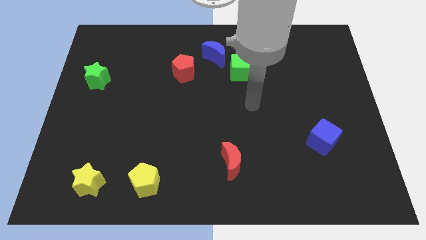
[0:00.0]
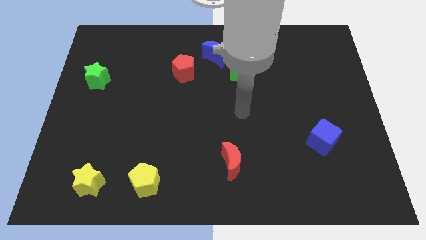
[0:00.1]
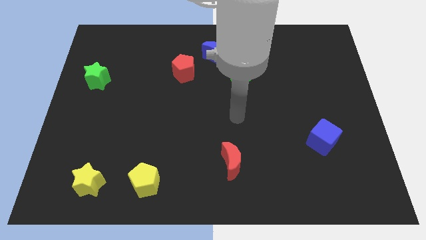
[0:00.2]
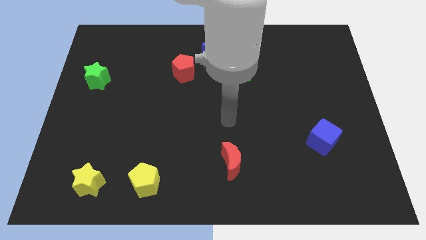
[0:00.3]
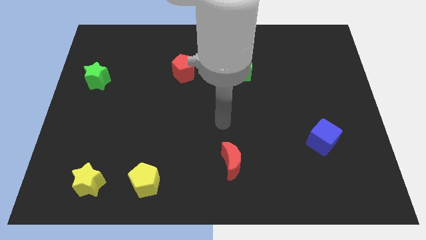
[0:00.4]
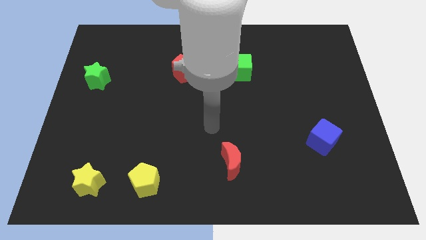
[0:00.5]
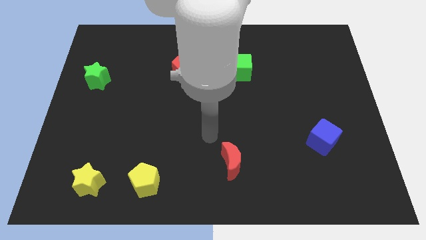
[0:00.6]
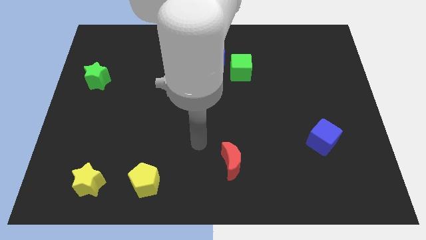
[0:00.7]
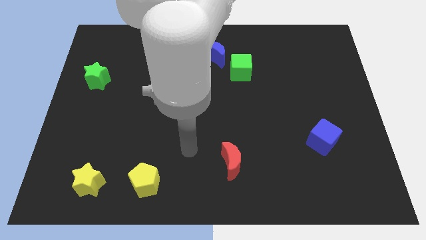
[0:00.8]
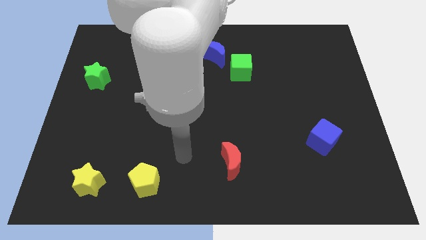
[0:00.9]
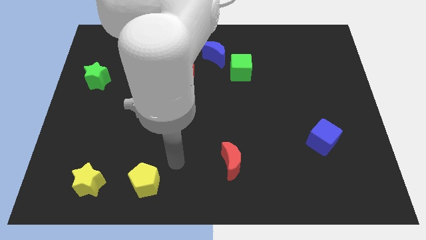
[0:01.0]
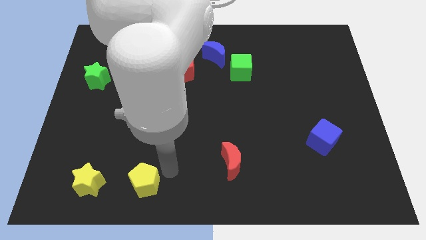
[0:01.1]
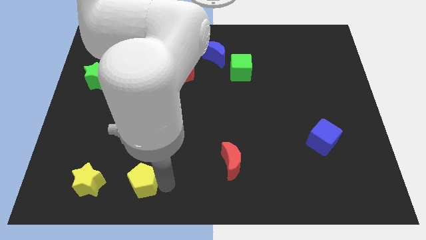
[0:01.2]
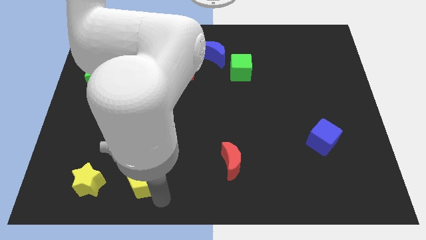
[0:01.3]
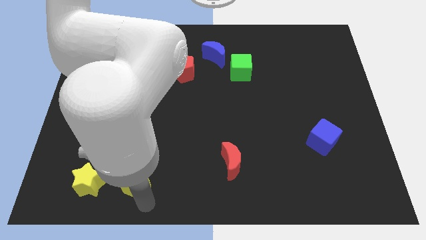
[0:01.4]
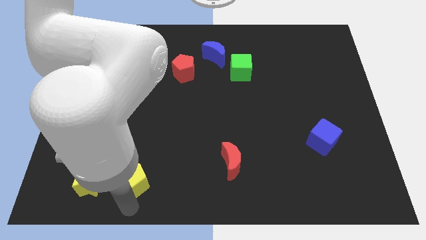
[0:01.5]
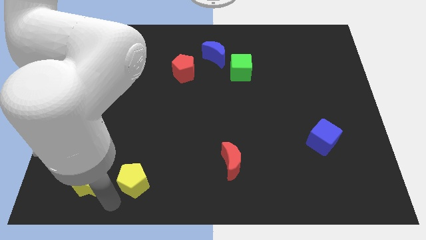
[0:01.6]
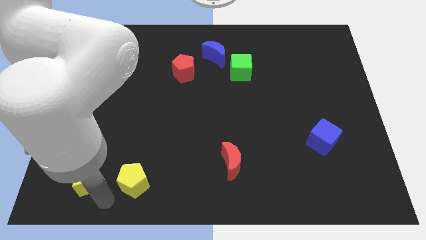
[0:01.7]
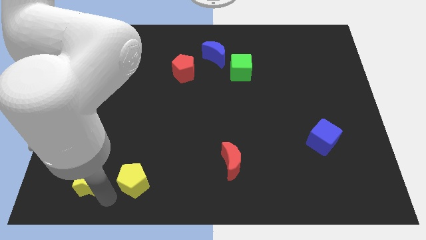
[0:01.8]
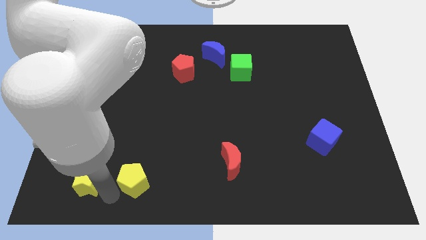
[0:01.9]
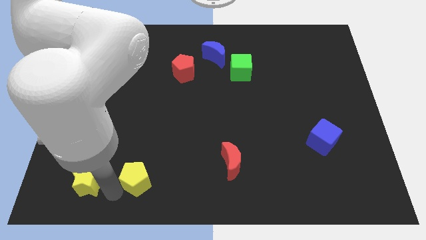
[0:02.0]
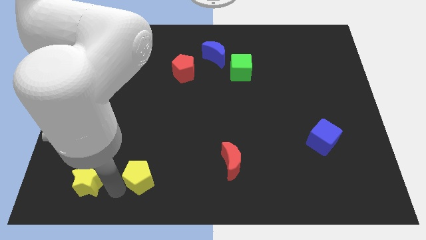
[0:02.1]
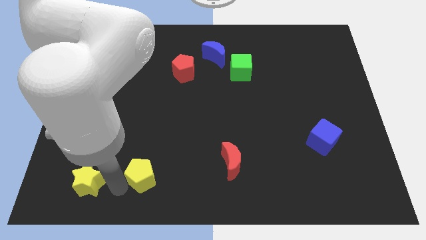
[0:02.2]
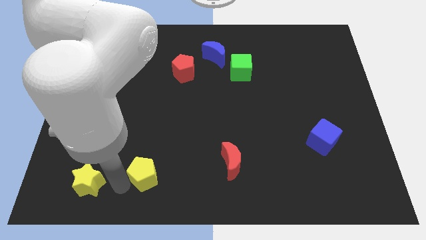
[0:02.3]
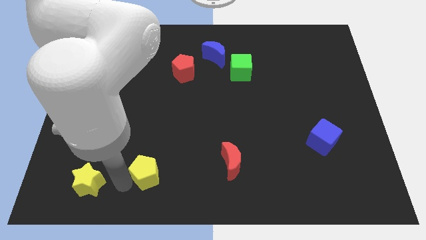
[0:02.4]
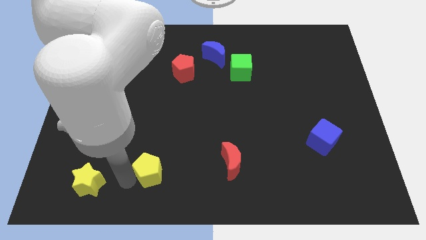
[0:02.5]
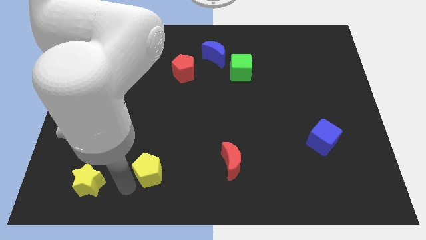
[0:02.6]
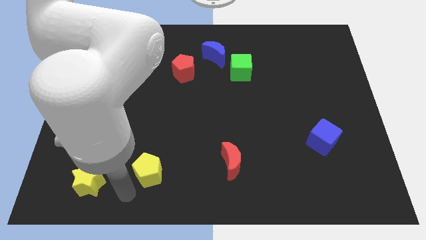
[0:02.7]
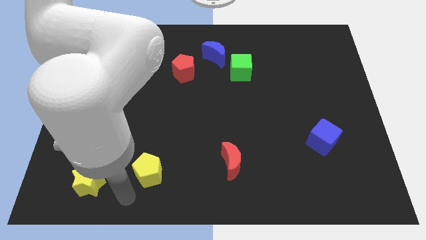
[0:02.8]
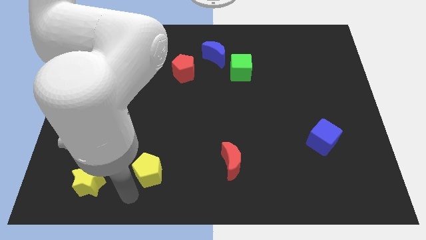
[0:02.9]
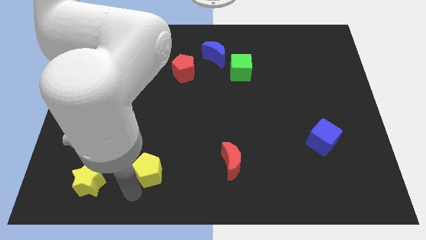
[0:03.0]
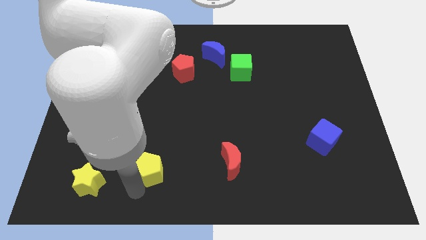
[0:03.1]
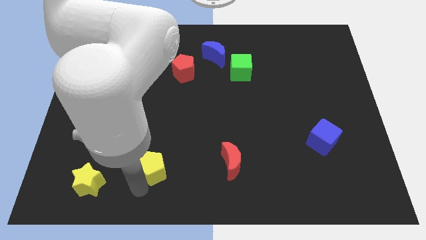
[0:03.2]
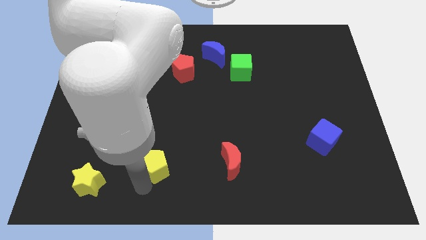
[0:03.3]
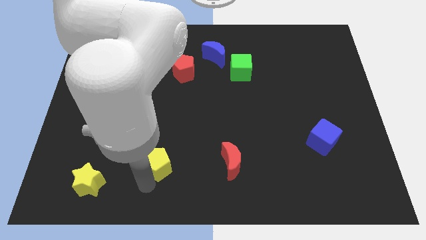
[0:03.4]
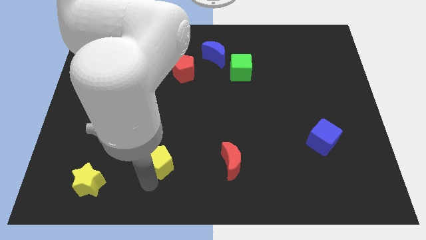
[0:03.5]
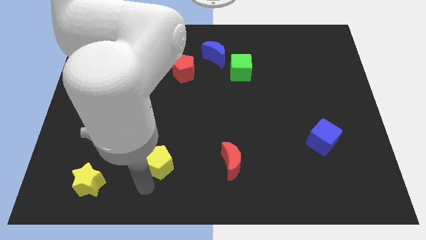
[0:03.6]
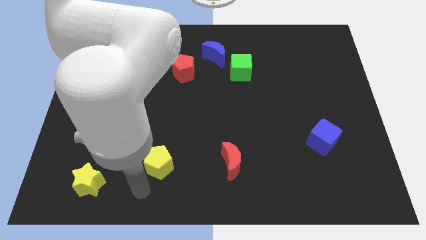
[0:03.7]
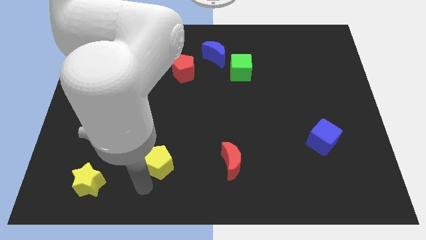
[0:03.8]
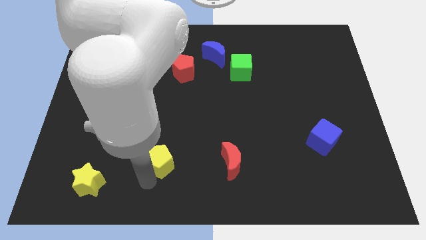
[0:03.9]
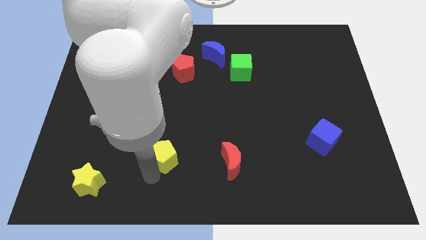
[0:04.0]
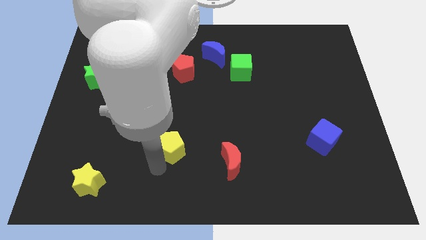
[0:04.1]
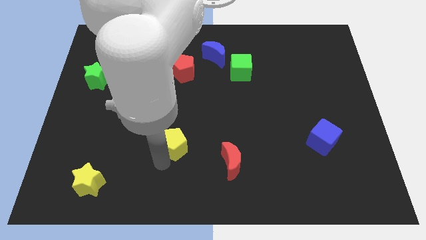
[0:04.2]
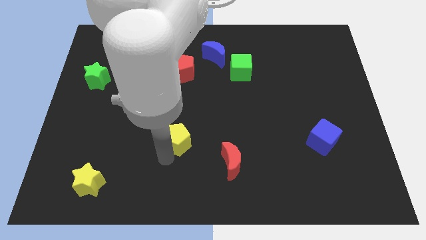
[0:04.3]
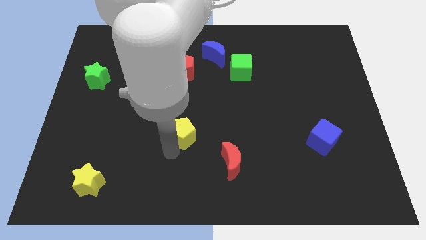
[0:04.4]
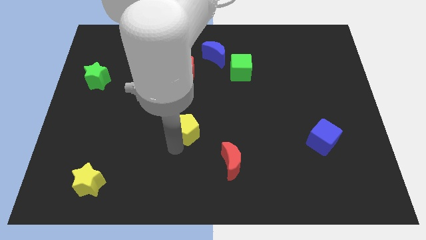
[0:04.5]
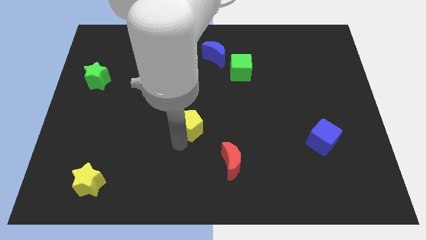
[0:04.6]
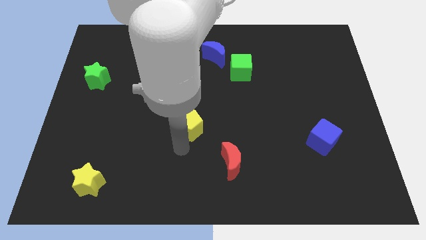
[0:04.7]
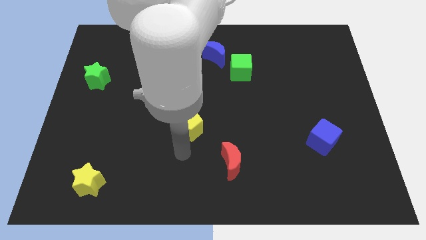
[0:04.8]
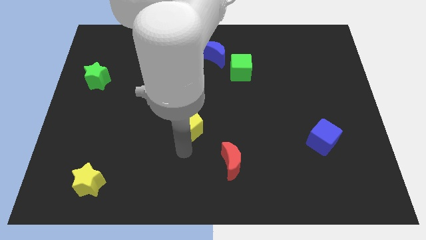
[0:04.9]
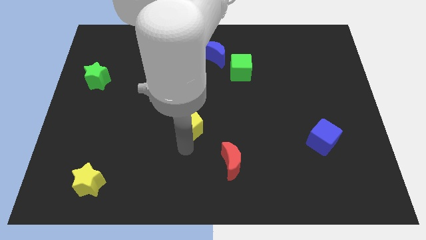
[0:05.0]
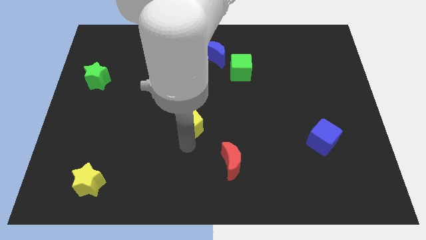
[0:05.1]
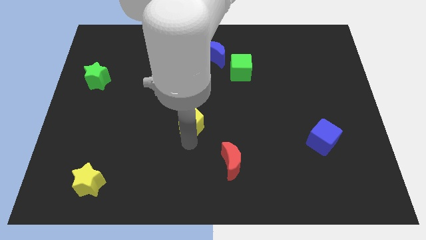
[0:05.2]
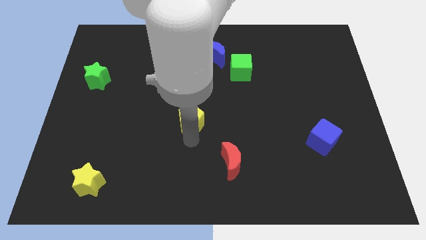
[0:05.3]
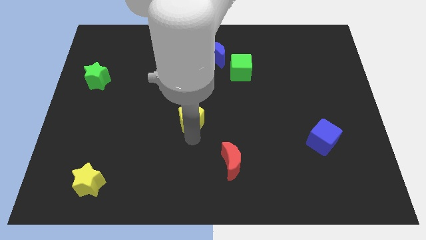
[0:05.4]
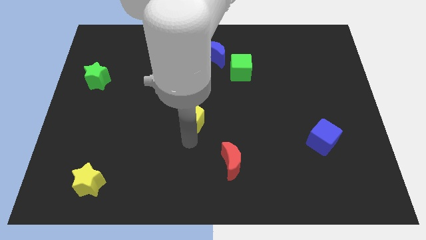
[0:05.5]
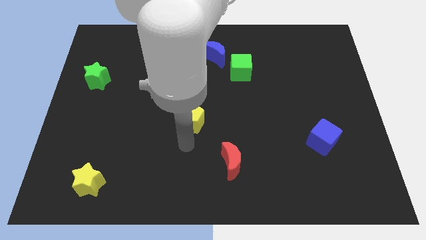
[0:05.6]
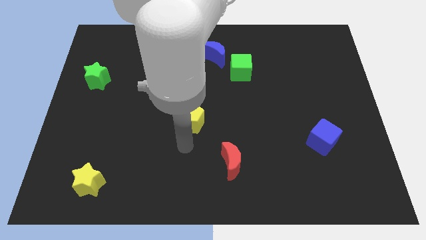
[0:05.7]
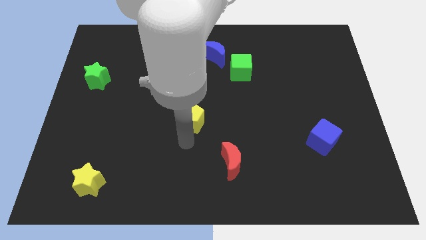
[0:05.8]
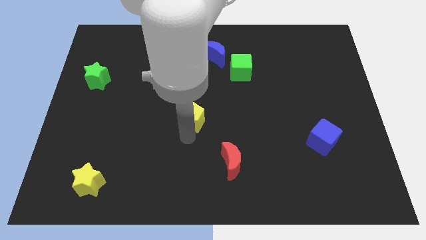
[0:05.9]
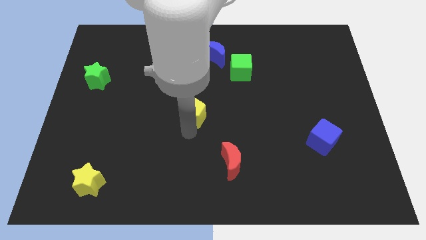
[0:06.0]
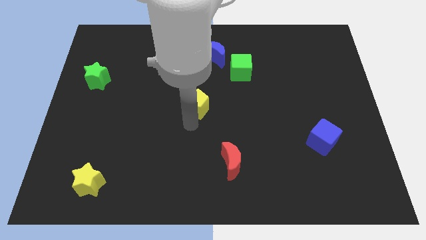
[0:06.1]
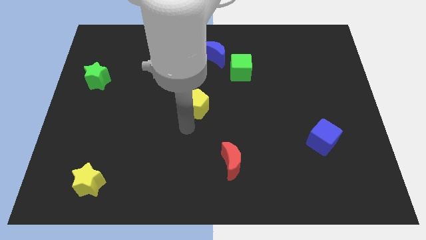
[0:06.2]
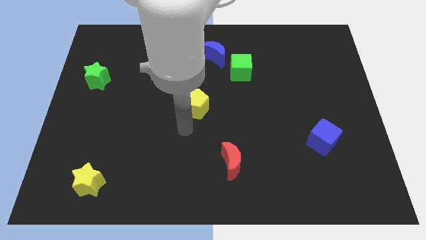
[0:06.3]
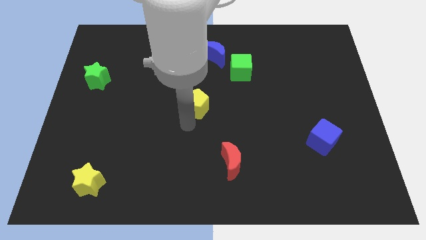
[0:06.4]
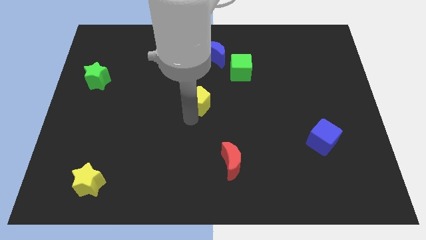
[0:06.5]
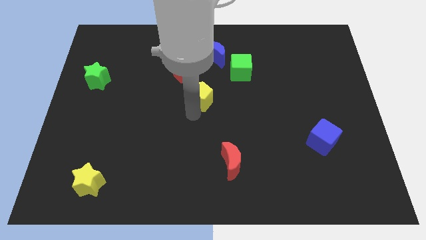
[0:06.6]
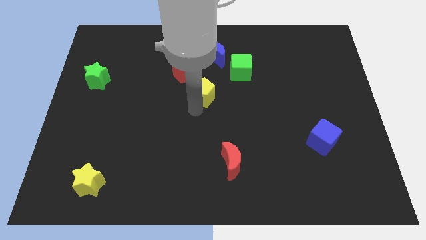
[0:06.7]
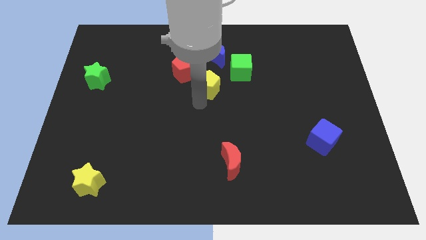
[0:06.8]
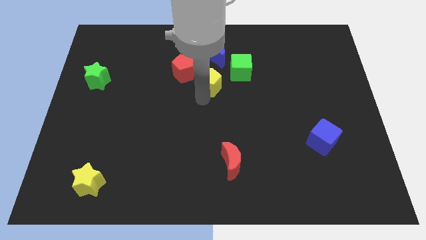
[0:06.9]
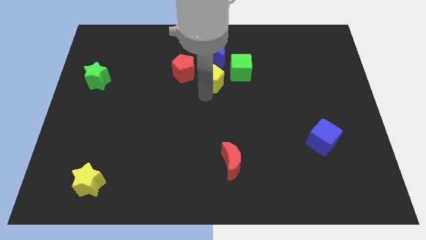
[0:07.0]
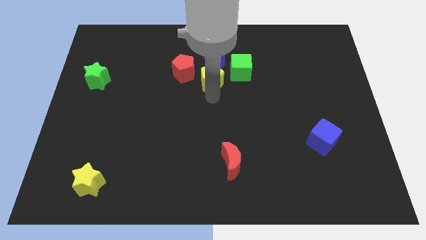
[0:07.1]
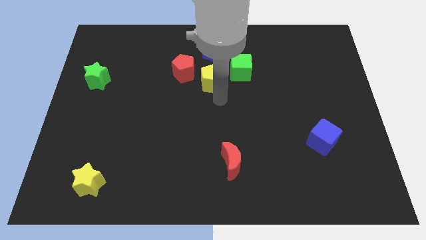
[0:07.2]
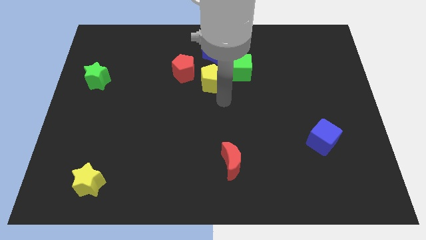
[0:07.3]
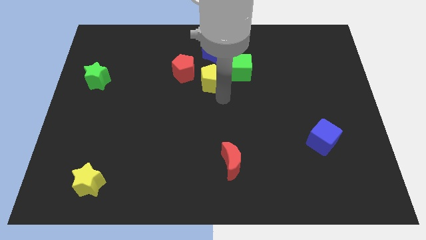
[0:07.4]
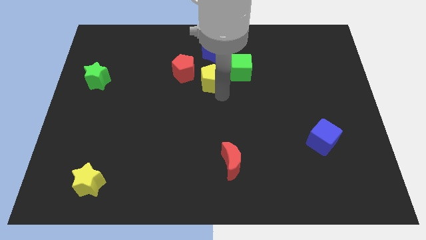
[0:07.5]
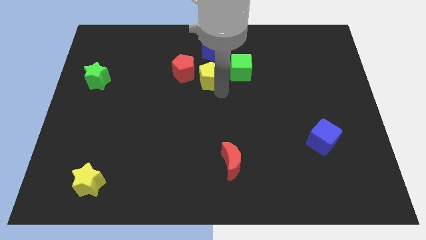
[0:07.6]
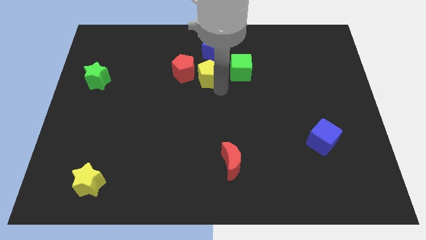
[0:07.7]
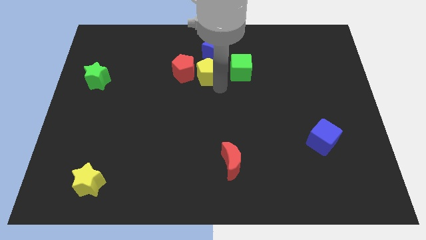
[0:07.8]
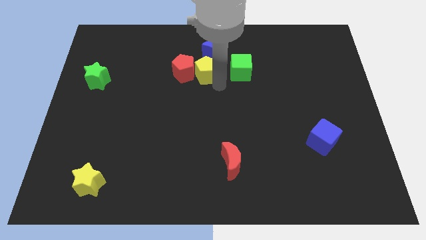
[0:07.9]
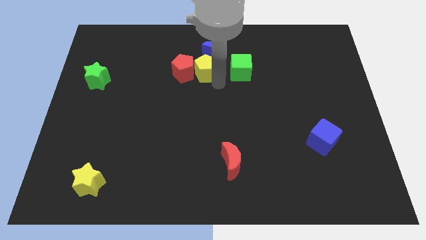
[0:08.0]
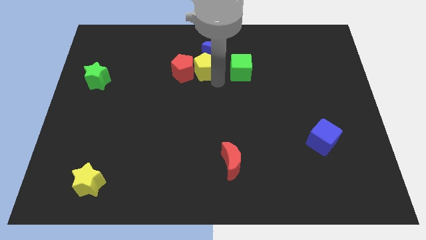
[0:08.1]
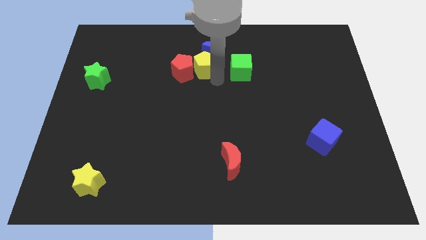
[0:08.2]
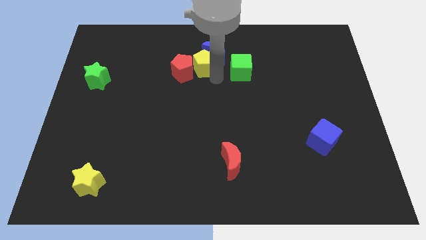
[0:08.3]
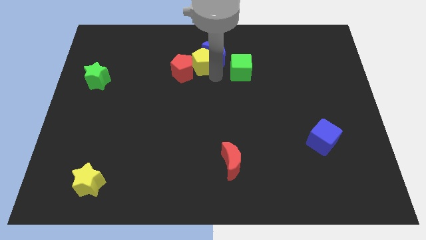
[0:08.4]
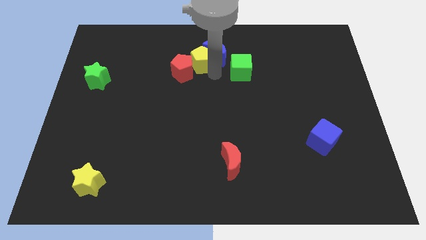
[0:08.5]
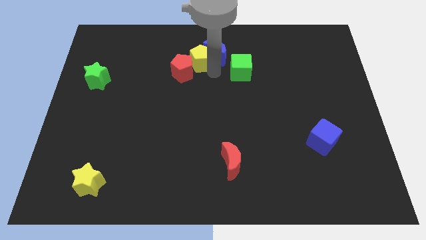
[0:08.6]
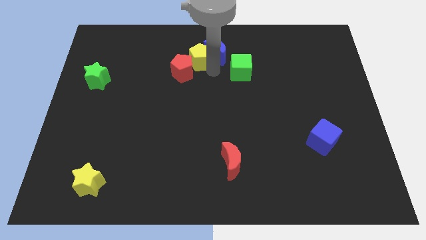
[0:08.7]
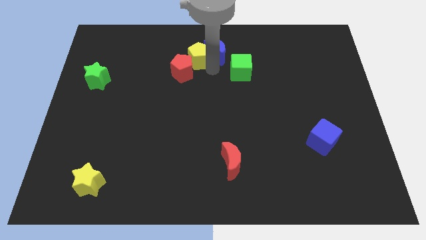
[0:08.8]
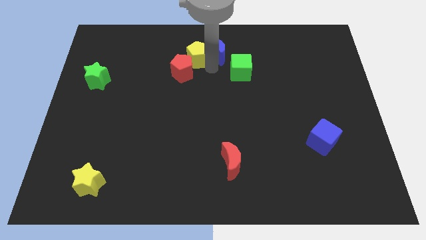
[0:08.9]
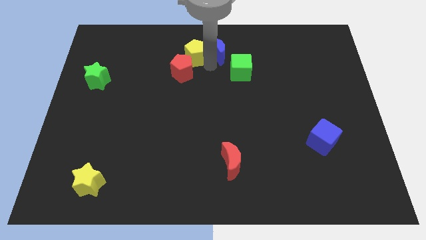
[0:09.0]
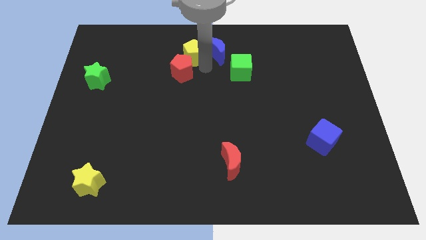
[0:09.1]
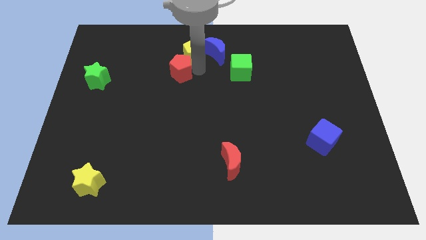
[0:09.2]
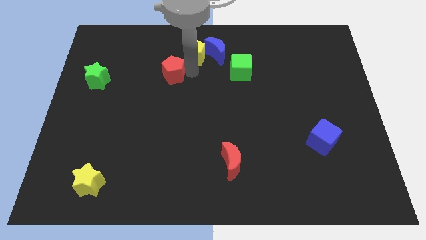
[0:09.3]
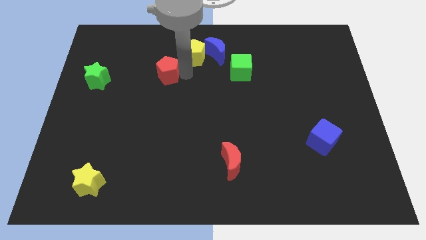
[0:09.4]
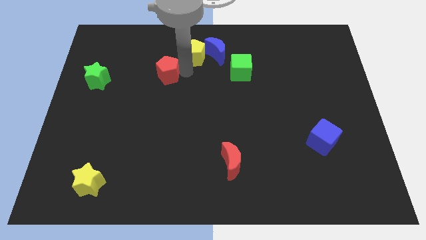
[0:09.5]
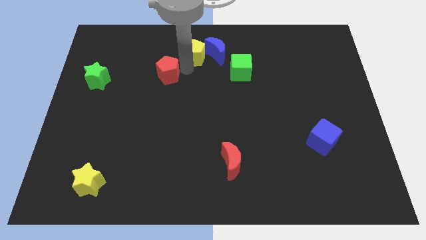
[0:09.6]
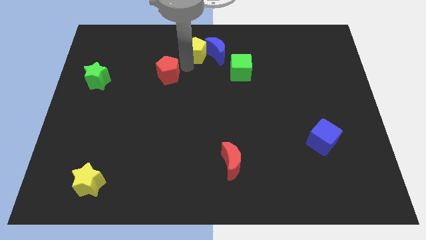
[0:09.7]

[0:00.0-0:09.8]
push the yellow pentagon to the towards your base
